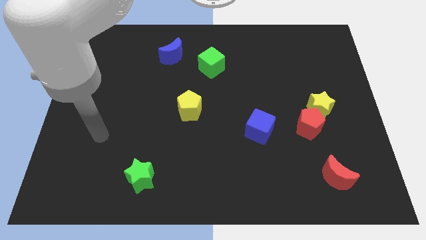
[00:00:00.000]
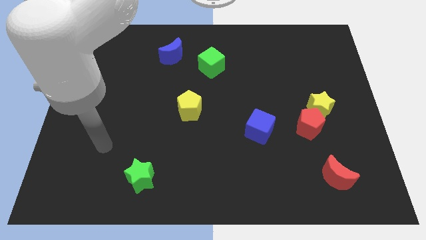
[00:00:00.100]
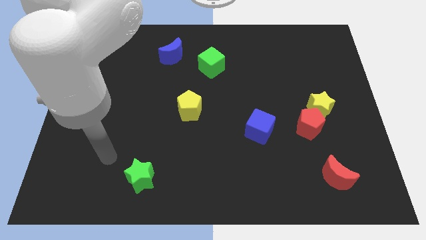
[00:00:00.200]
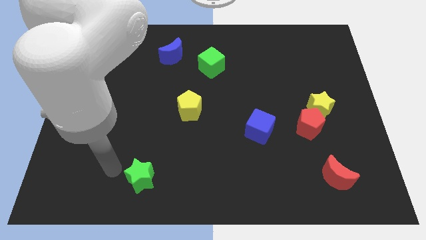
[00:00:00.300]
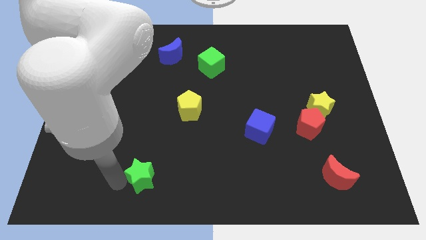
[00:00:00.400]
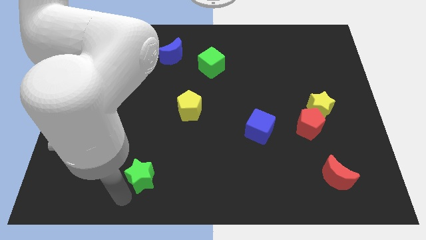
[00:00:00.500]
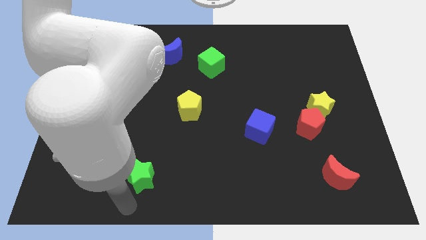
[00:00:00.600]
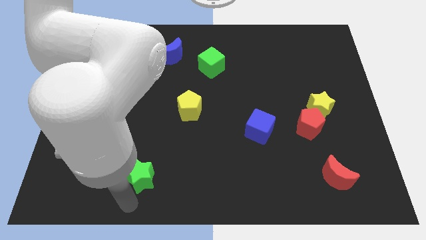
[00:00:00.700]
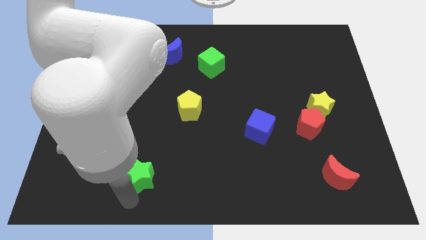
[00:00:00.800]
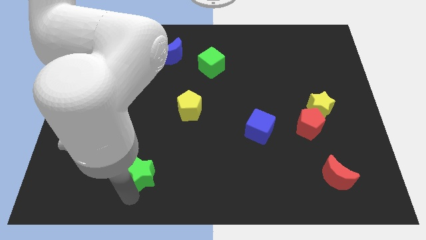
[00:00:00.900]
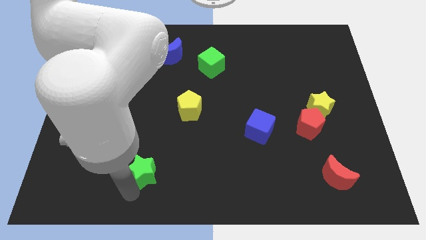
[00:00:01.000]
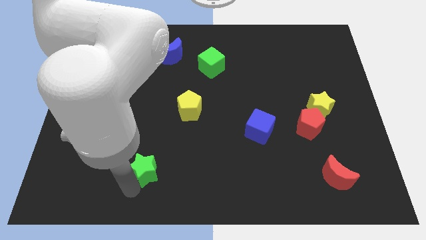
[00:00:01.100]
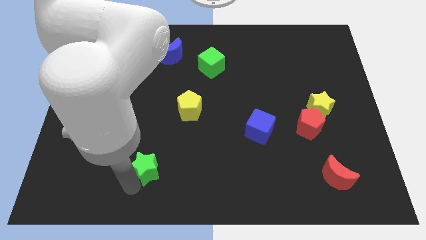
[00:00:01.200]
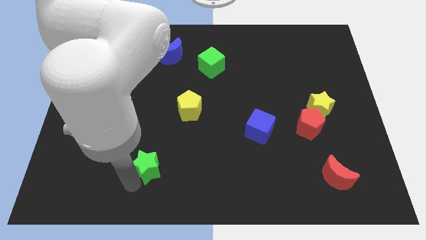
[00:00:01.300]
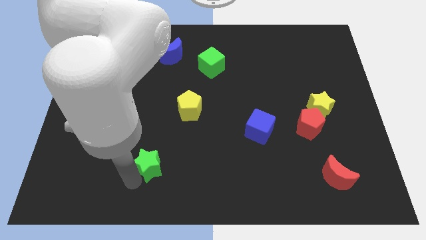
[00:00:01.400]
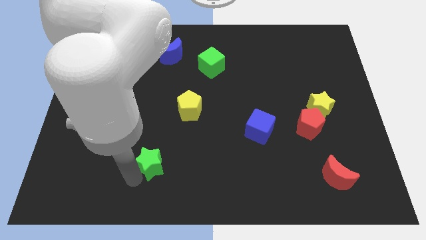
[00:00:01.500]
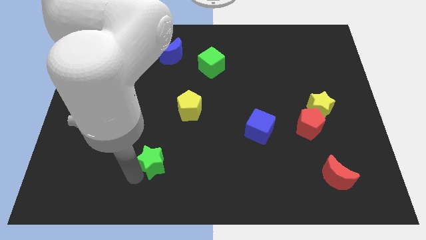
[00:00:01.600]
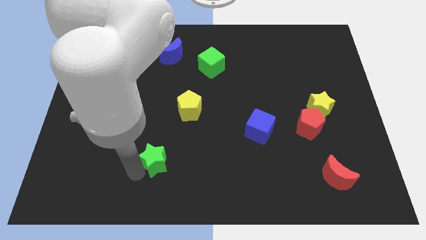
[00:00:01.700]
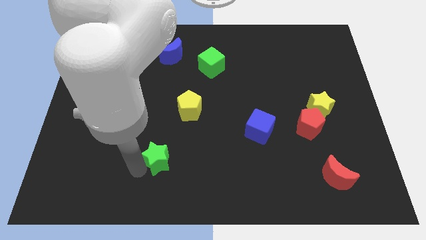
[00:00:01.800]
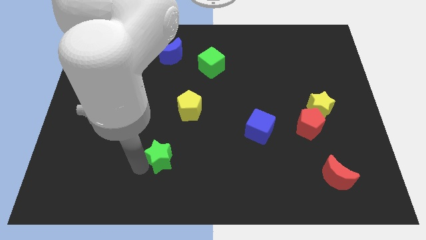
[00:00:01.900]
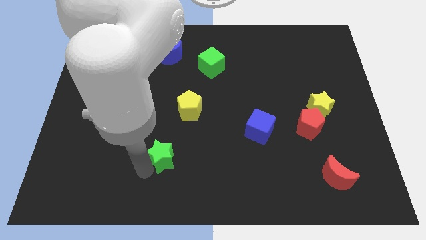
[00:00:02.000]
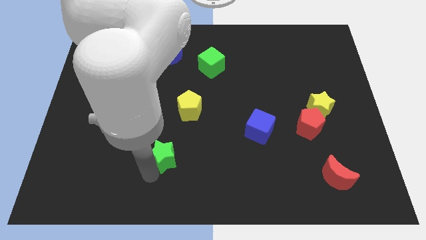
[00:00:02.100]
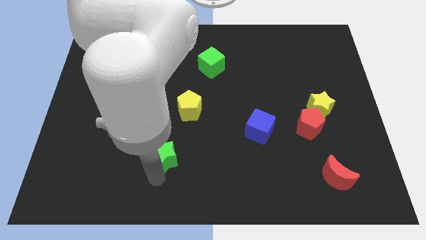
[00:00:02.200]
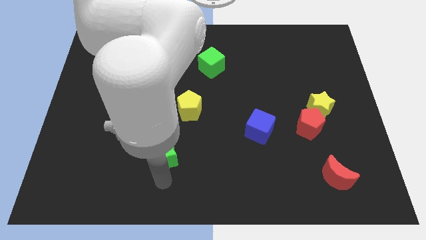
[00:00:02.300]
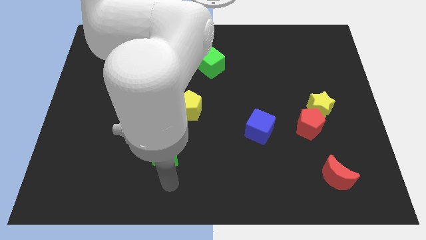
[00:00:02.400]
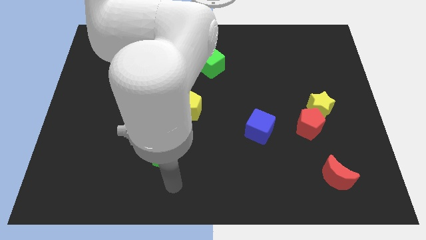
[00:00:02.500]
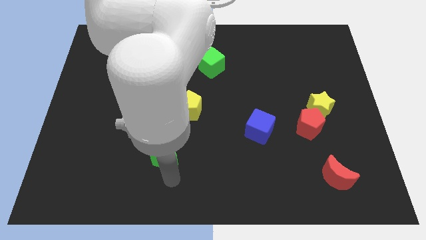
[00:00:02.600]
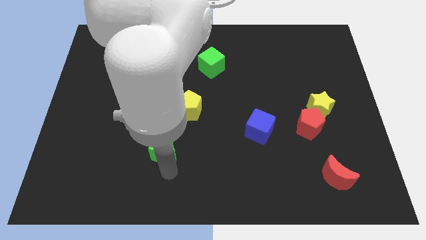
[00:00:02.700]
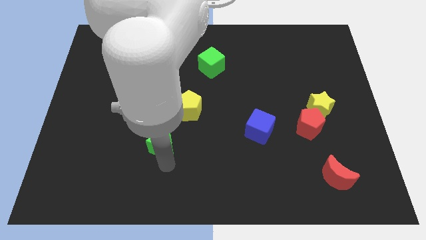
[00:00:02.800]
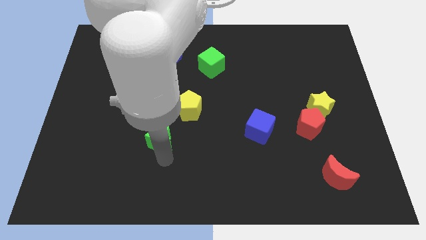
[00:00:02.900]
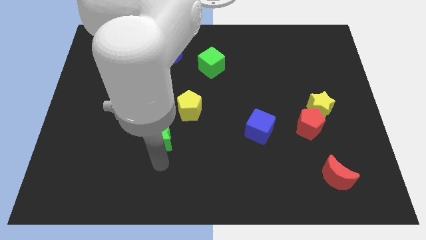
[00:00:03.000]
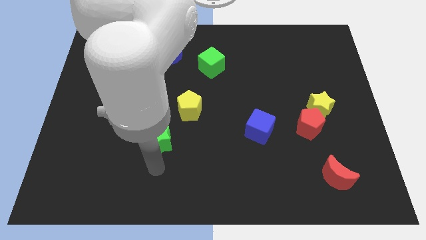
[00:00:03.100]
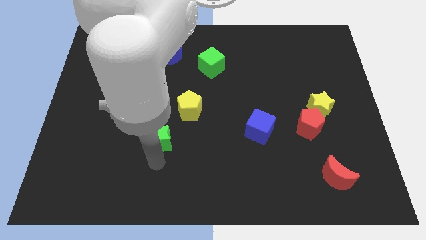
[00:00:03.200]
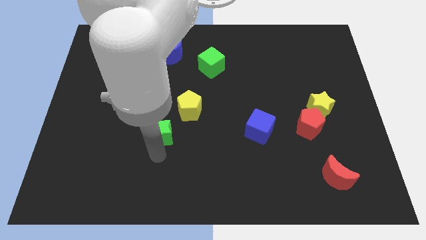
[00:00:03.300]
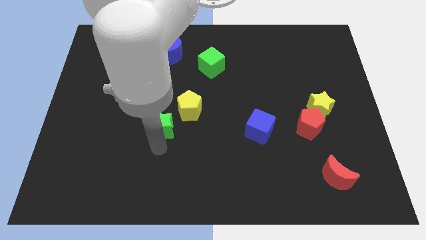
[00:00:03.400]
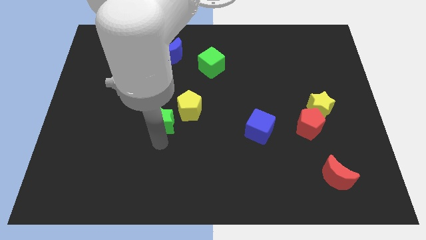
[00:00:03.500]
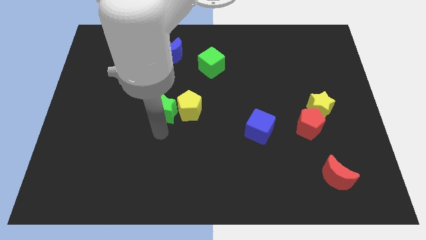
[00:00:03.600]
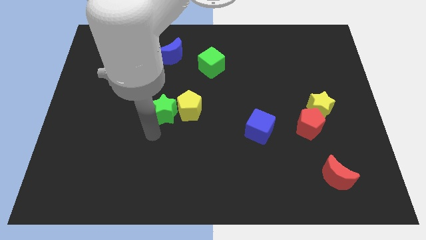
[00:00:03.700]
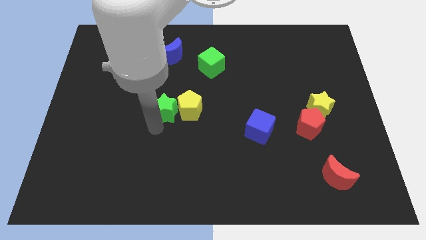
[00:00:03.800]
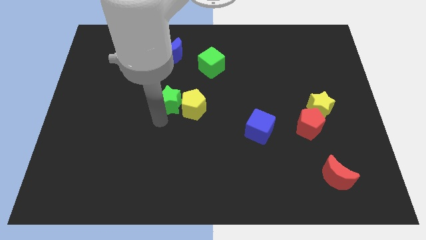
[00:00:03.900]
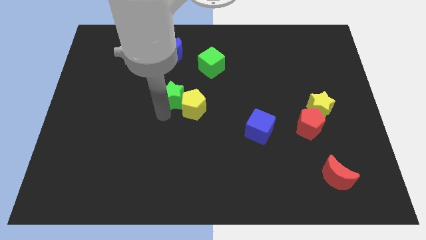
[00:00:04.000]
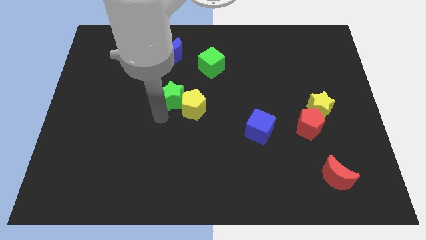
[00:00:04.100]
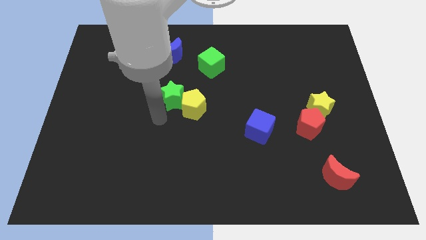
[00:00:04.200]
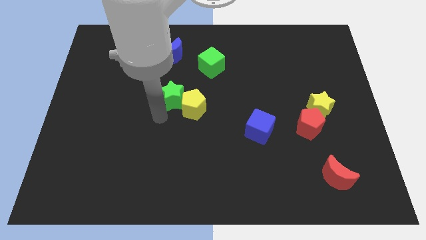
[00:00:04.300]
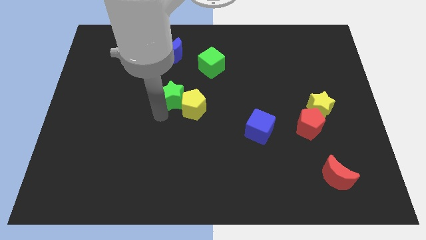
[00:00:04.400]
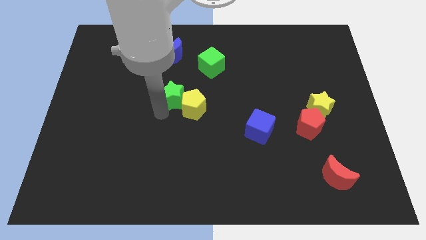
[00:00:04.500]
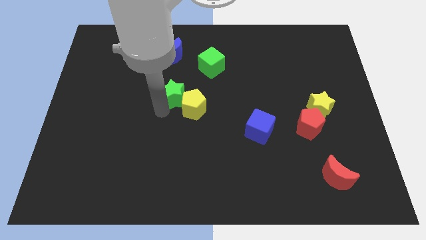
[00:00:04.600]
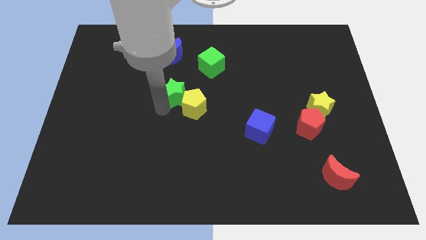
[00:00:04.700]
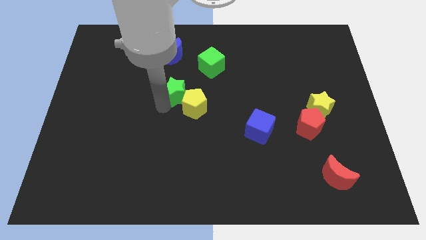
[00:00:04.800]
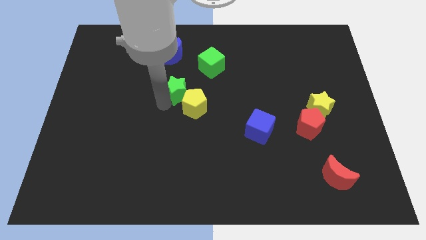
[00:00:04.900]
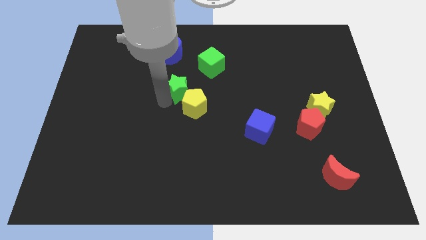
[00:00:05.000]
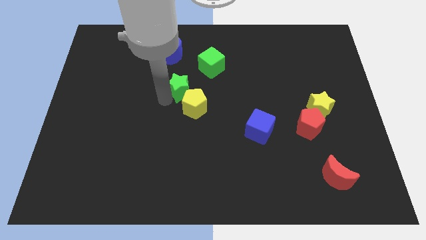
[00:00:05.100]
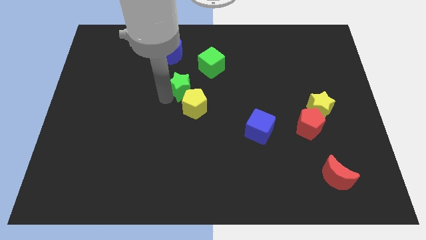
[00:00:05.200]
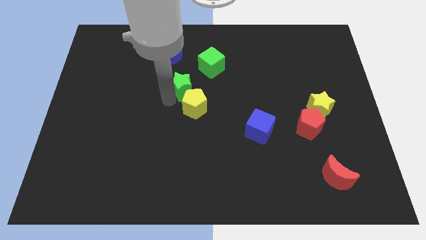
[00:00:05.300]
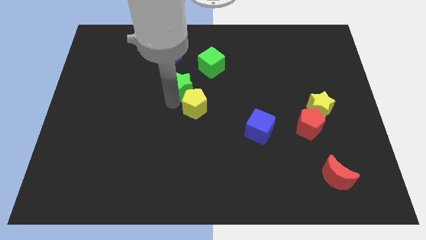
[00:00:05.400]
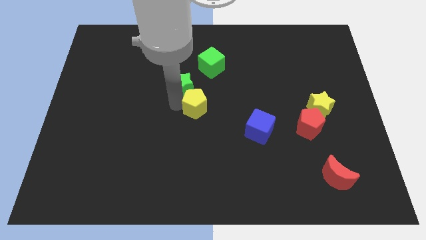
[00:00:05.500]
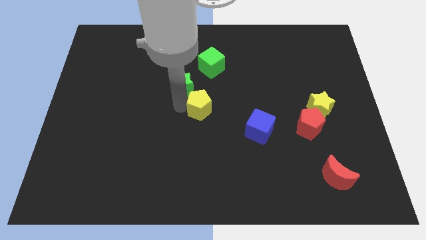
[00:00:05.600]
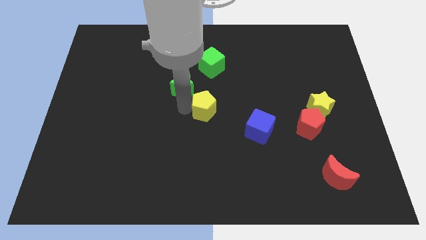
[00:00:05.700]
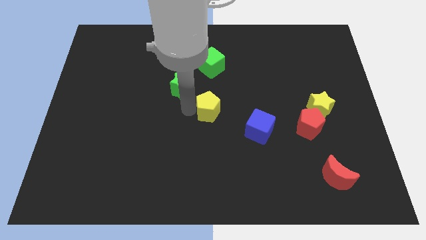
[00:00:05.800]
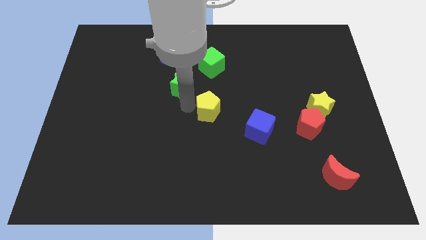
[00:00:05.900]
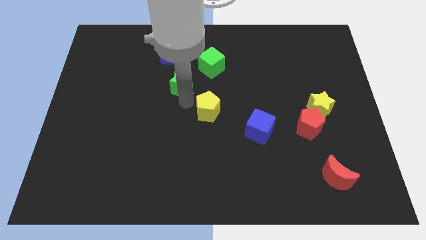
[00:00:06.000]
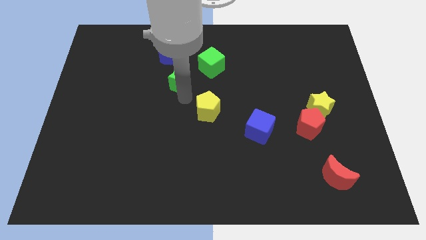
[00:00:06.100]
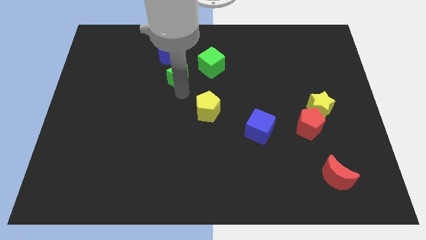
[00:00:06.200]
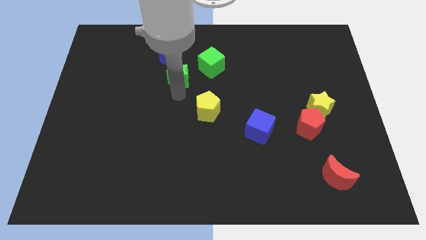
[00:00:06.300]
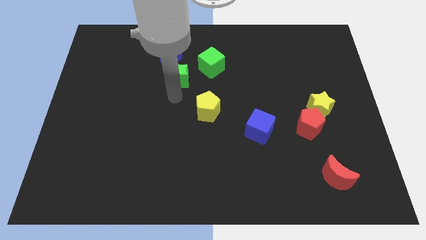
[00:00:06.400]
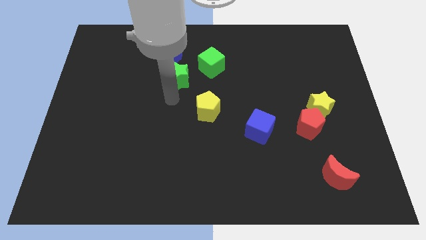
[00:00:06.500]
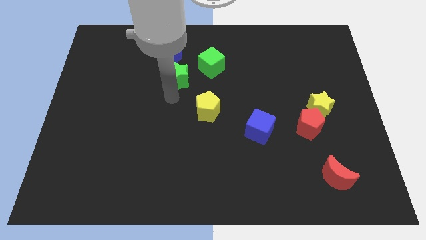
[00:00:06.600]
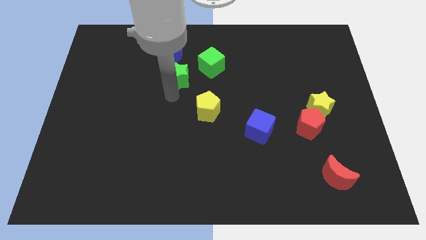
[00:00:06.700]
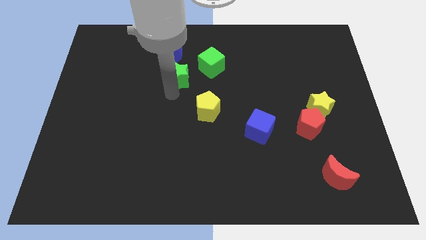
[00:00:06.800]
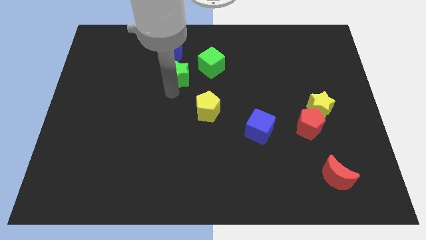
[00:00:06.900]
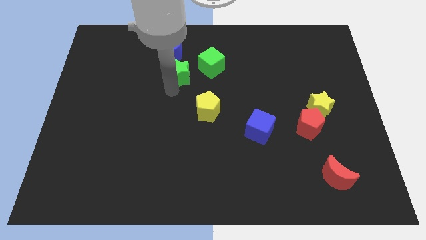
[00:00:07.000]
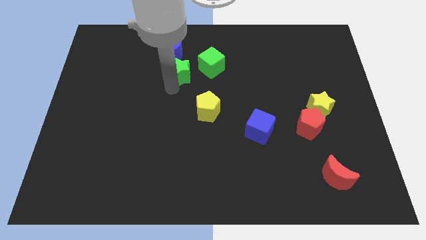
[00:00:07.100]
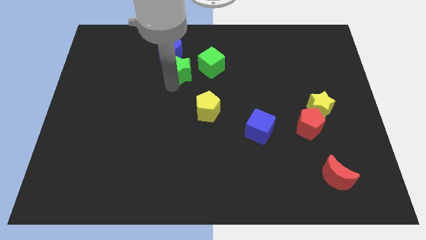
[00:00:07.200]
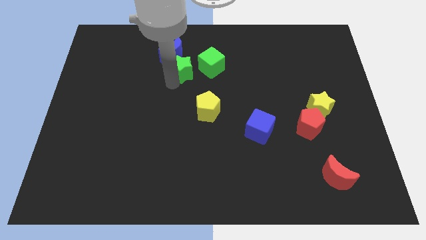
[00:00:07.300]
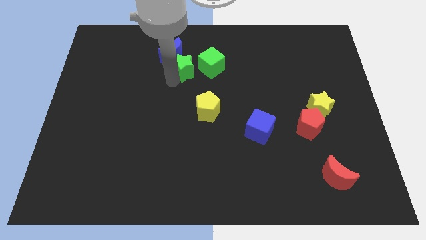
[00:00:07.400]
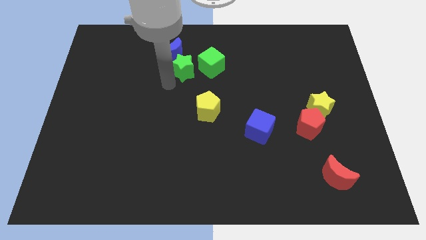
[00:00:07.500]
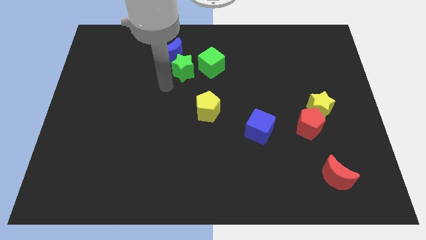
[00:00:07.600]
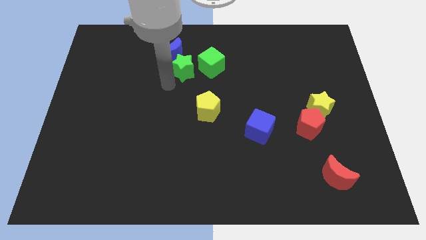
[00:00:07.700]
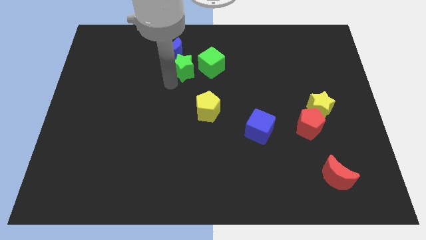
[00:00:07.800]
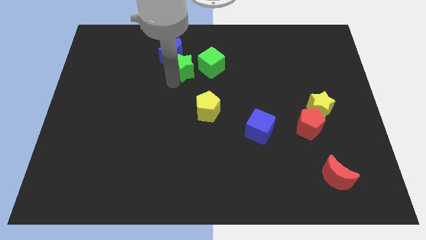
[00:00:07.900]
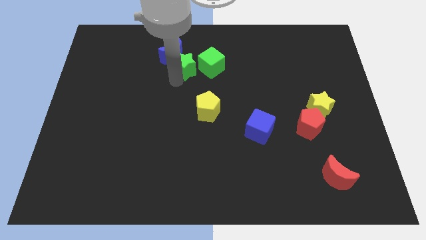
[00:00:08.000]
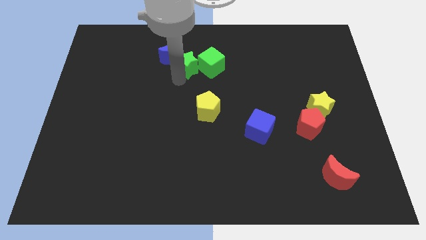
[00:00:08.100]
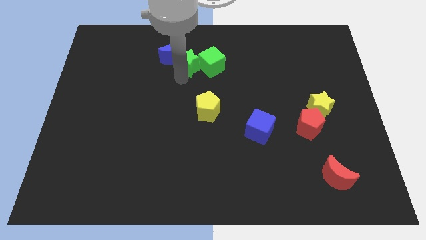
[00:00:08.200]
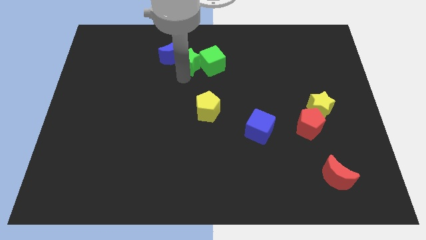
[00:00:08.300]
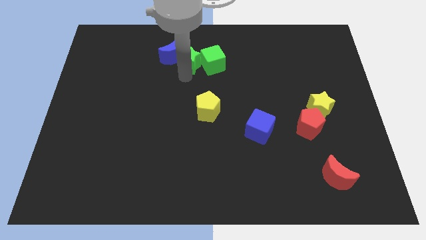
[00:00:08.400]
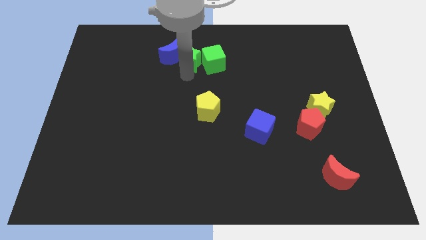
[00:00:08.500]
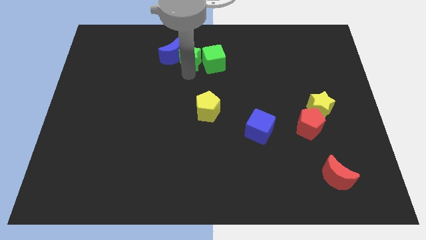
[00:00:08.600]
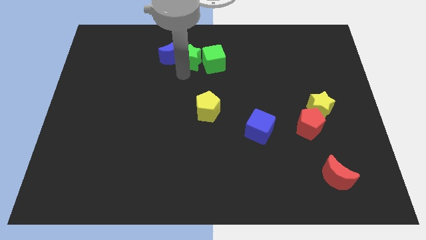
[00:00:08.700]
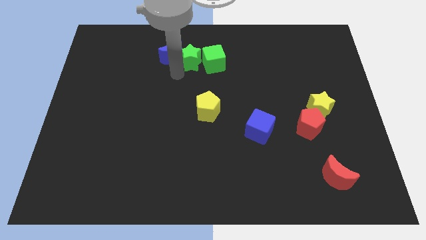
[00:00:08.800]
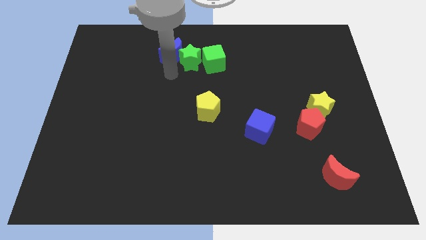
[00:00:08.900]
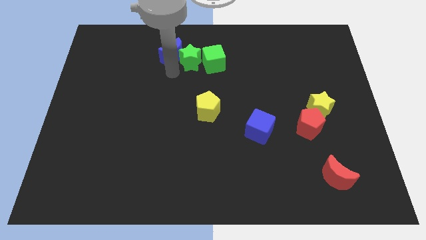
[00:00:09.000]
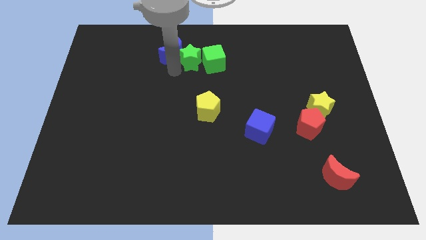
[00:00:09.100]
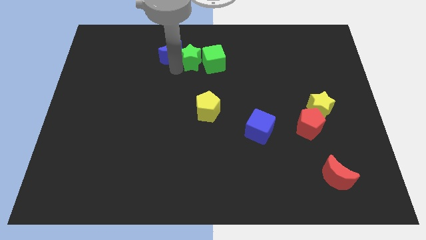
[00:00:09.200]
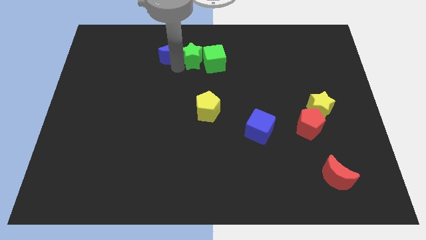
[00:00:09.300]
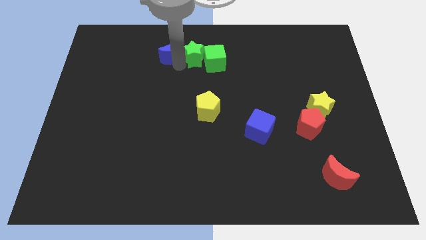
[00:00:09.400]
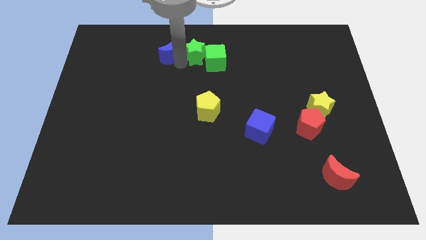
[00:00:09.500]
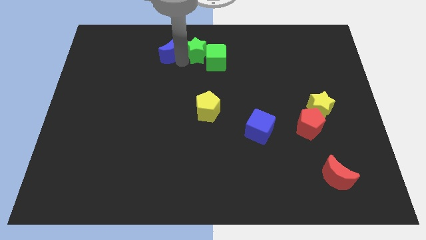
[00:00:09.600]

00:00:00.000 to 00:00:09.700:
slide the green star to the top
